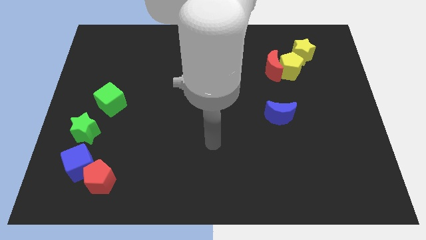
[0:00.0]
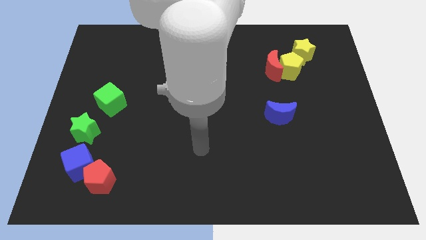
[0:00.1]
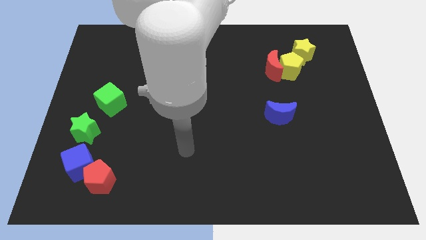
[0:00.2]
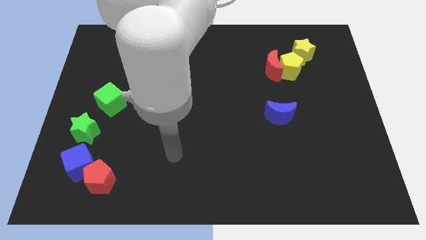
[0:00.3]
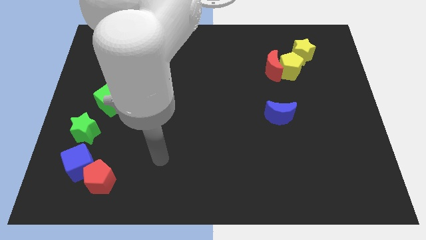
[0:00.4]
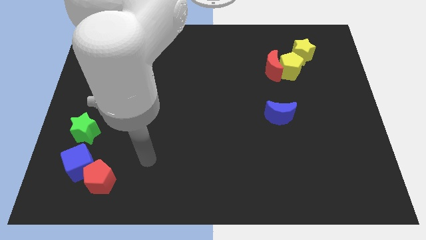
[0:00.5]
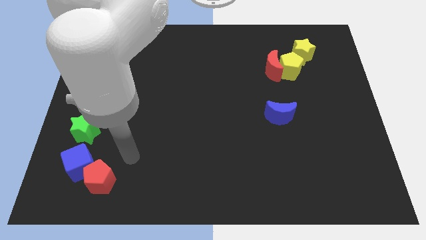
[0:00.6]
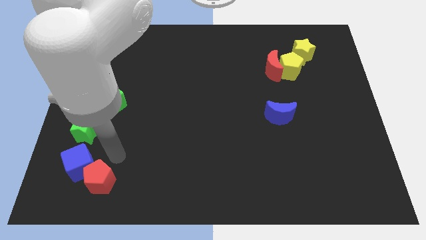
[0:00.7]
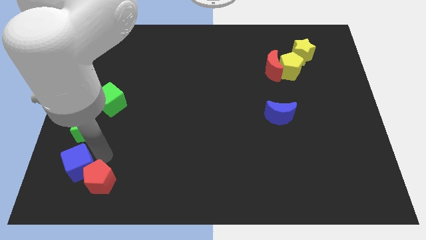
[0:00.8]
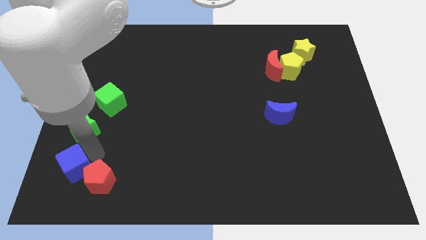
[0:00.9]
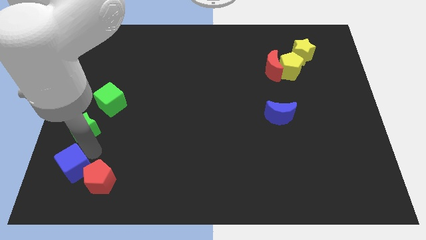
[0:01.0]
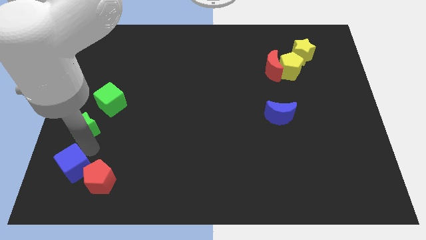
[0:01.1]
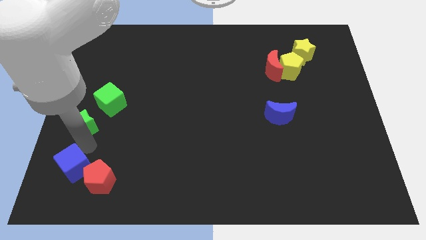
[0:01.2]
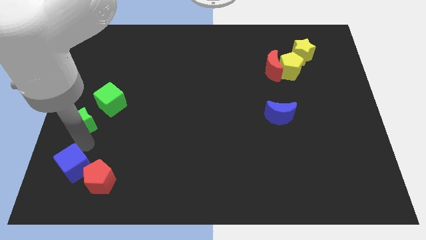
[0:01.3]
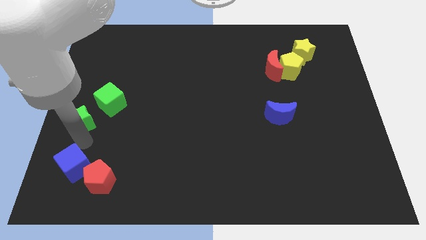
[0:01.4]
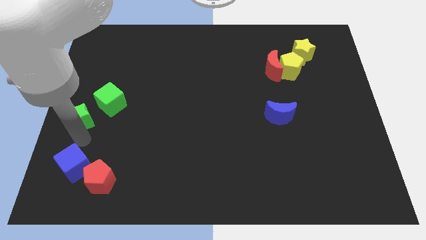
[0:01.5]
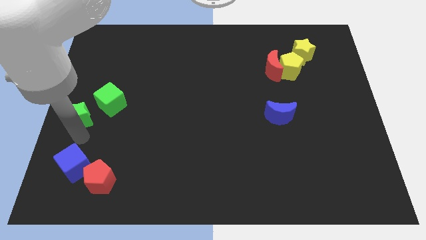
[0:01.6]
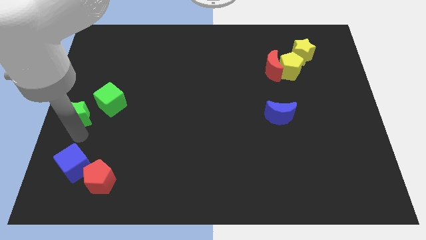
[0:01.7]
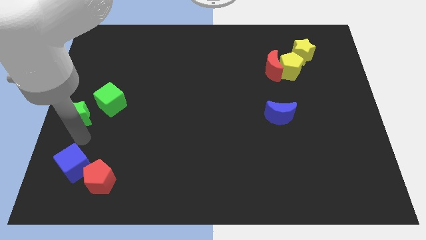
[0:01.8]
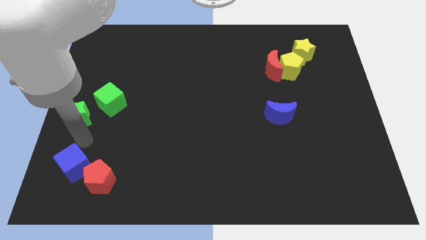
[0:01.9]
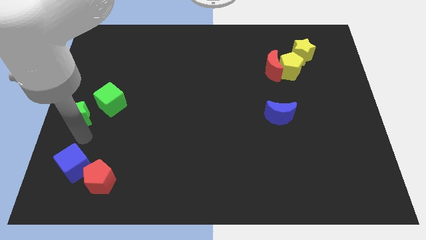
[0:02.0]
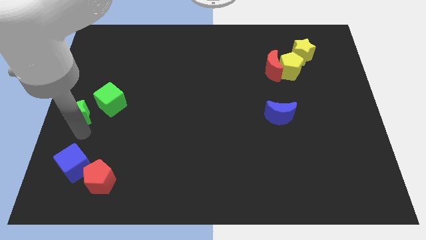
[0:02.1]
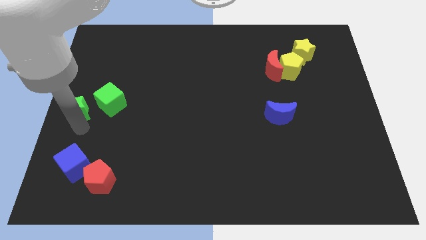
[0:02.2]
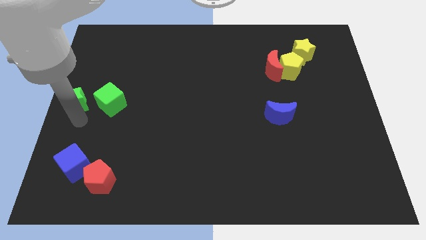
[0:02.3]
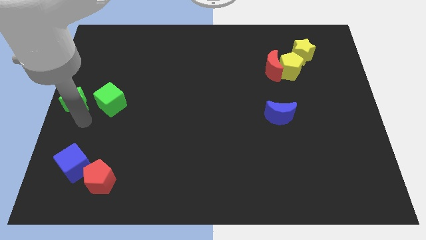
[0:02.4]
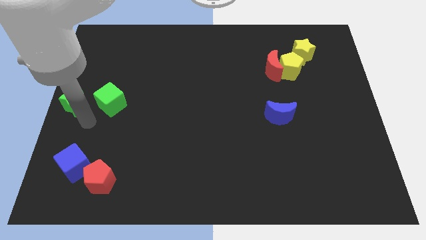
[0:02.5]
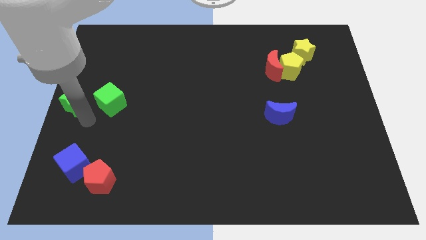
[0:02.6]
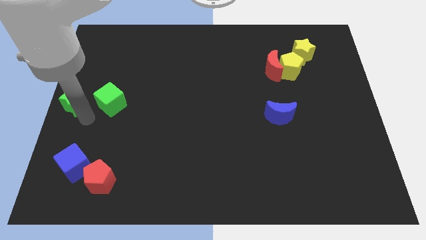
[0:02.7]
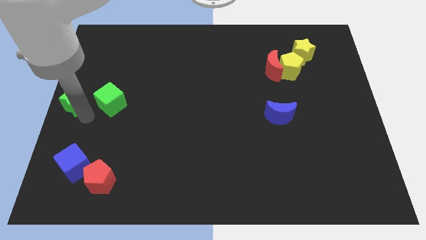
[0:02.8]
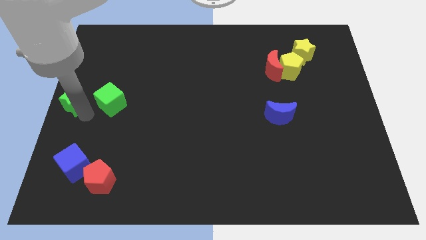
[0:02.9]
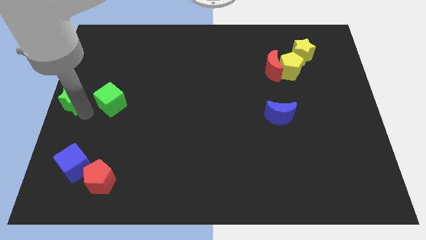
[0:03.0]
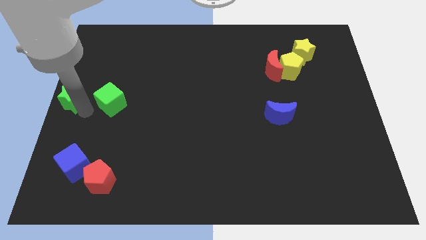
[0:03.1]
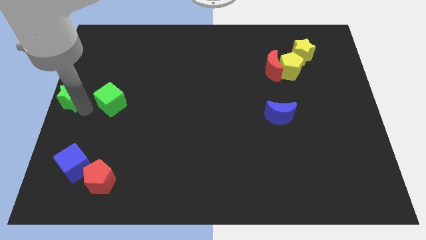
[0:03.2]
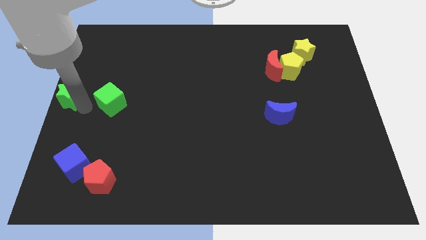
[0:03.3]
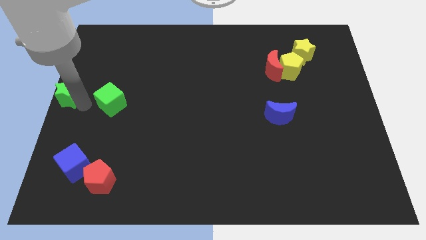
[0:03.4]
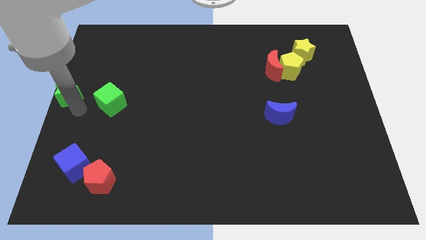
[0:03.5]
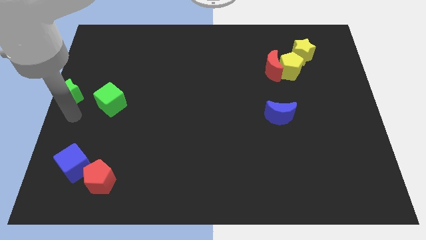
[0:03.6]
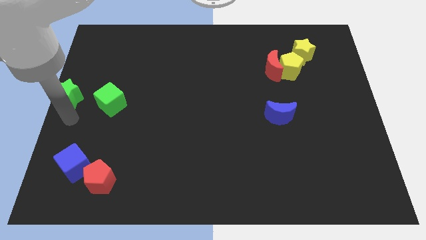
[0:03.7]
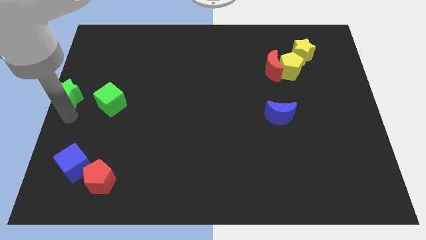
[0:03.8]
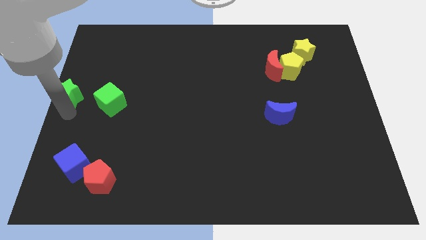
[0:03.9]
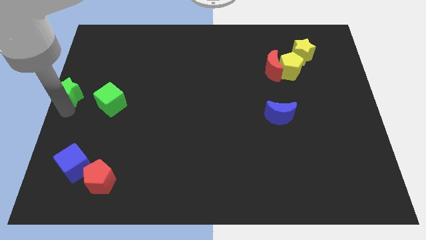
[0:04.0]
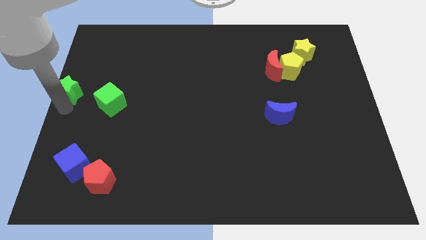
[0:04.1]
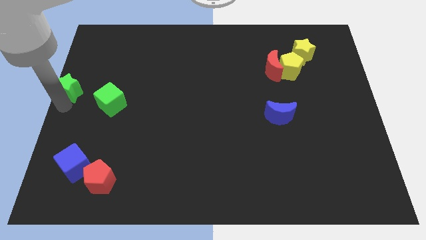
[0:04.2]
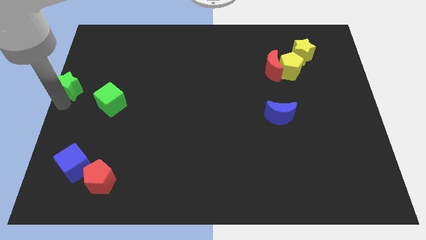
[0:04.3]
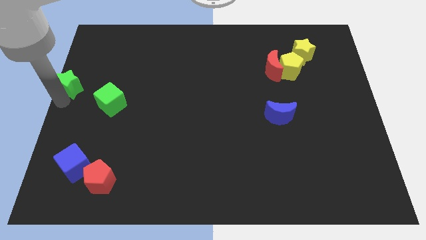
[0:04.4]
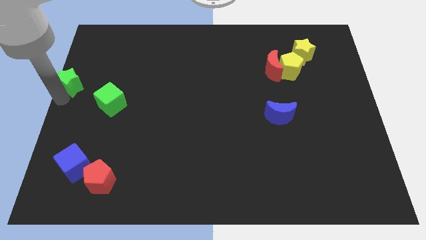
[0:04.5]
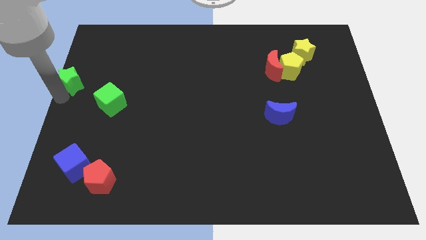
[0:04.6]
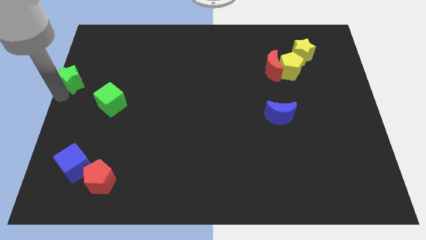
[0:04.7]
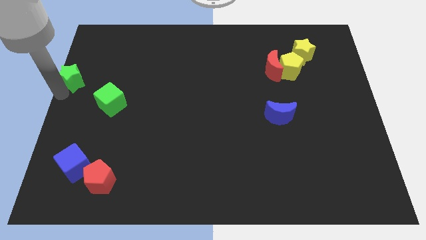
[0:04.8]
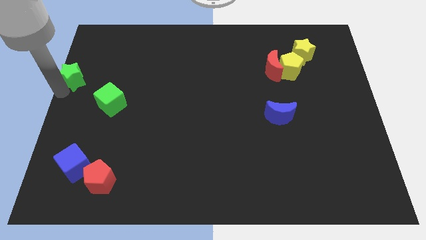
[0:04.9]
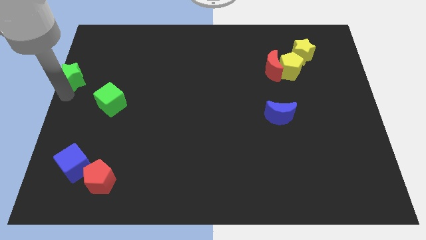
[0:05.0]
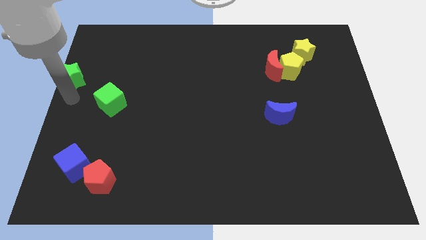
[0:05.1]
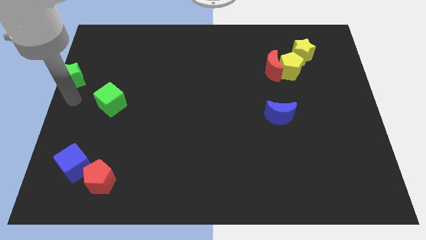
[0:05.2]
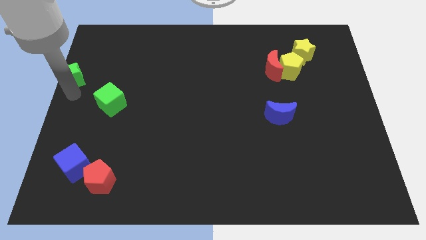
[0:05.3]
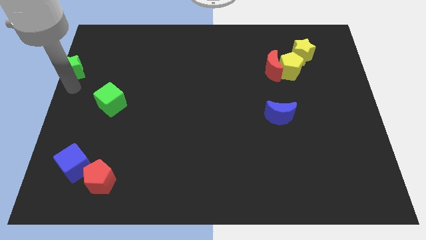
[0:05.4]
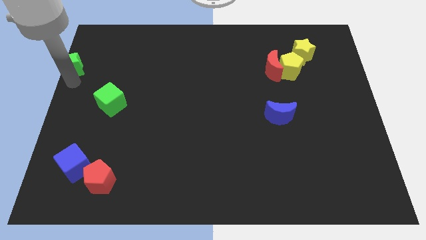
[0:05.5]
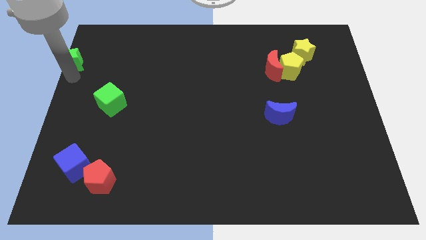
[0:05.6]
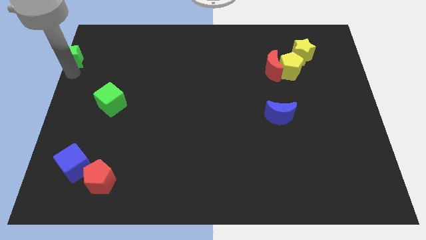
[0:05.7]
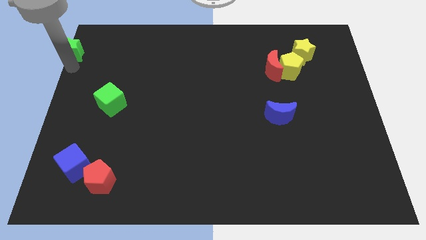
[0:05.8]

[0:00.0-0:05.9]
move the green star to the upper left corner
